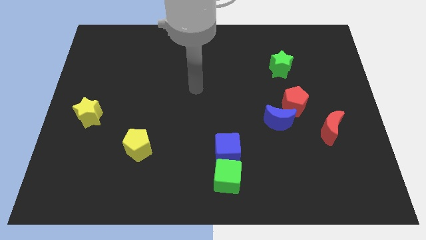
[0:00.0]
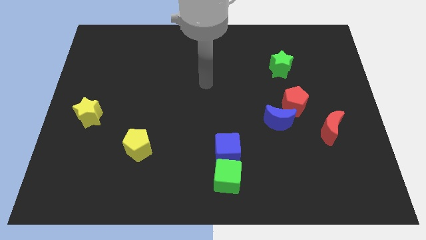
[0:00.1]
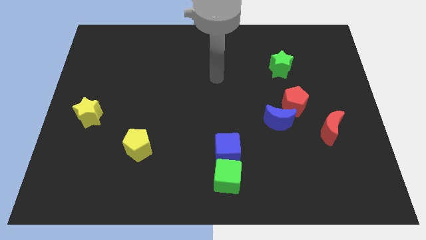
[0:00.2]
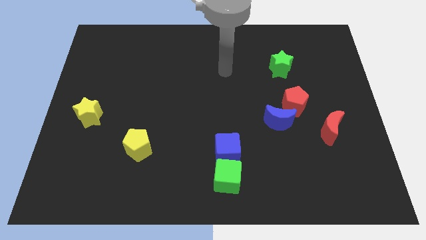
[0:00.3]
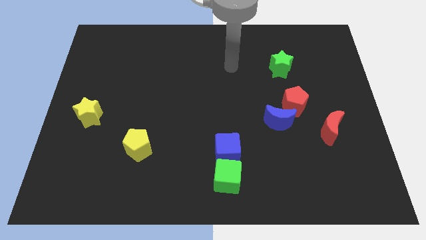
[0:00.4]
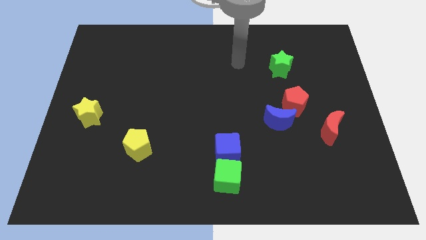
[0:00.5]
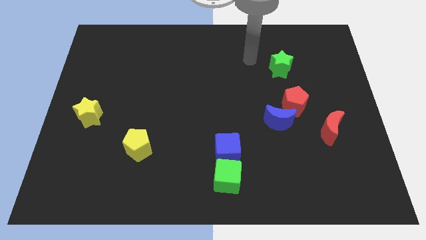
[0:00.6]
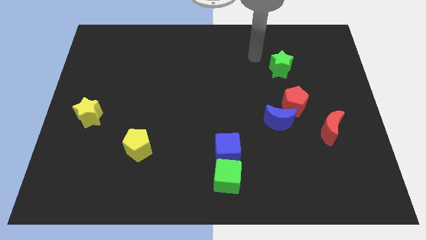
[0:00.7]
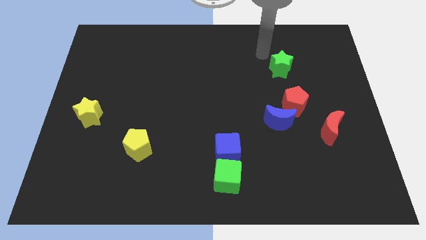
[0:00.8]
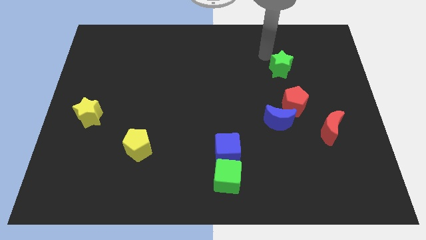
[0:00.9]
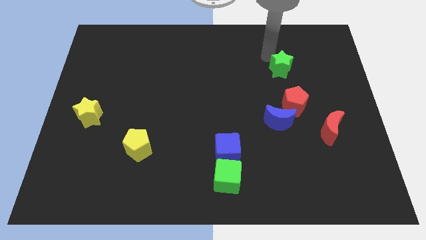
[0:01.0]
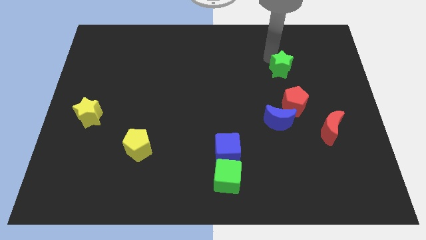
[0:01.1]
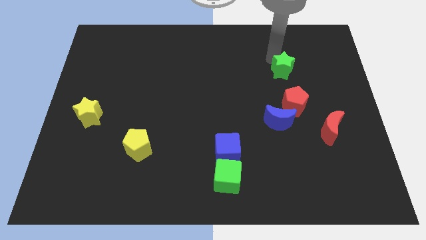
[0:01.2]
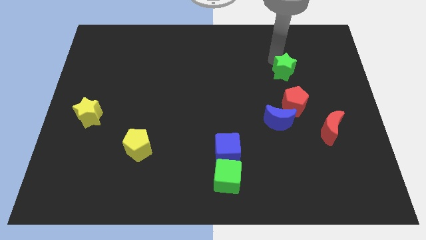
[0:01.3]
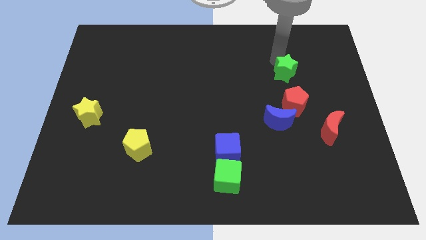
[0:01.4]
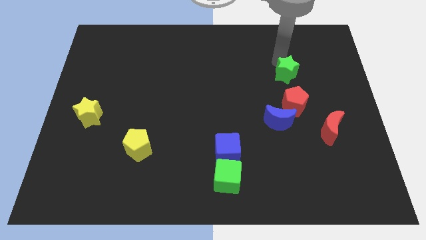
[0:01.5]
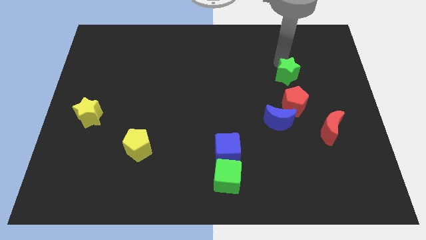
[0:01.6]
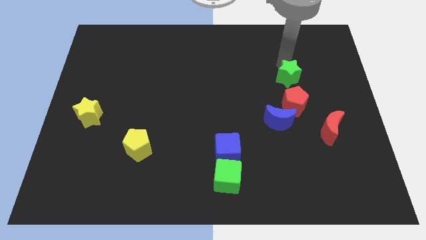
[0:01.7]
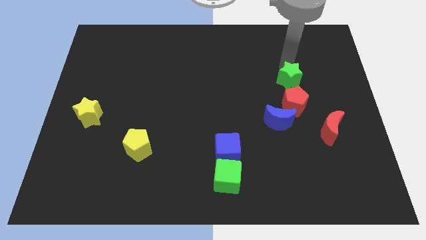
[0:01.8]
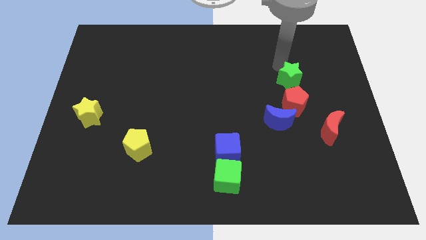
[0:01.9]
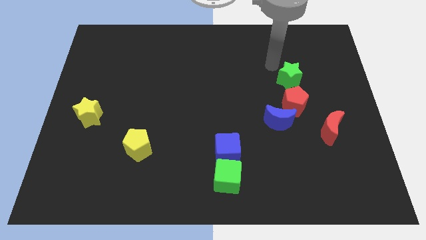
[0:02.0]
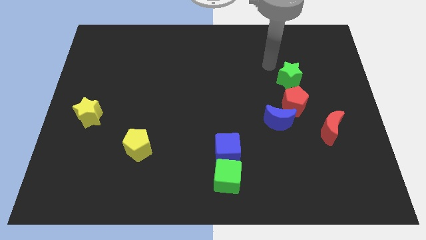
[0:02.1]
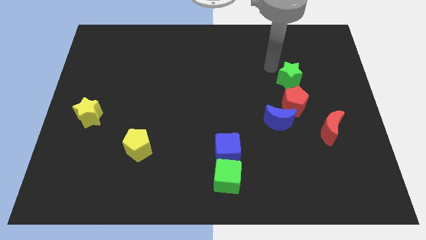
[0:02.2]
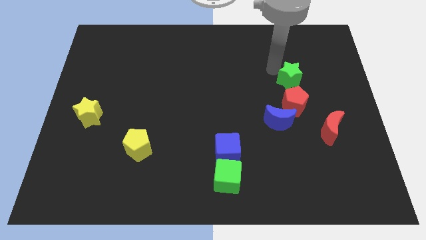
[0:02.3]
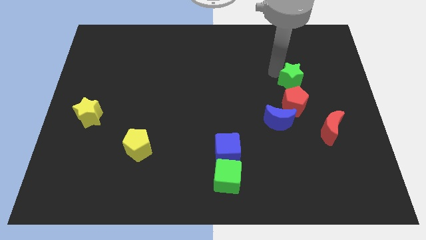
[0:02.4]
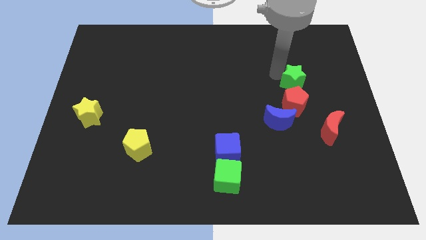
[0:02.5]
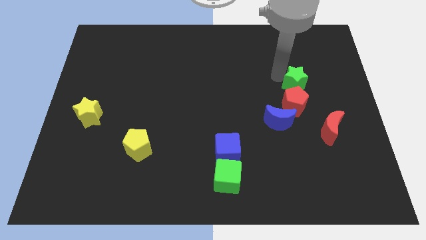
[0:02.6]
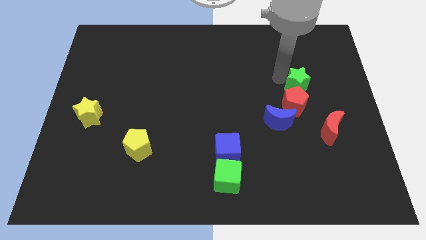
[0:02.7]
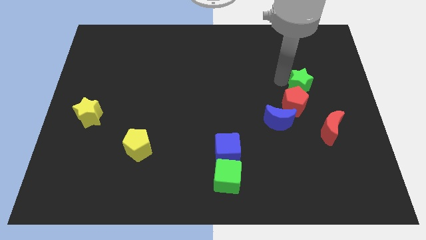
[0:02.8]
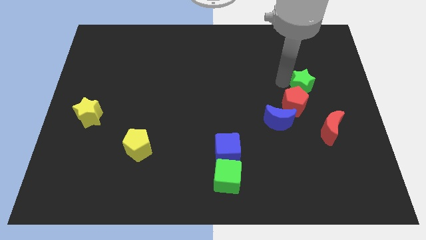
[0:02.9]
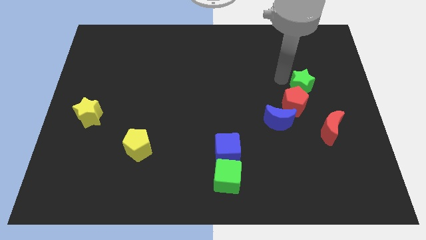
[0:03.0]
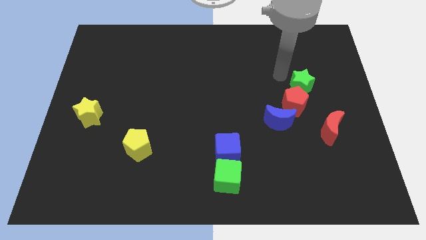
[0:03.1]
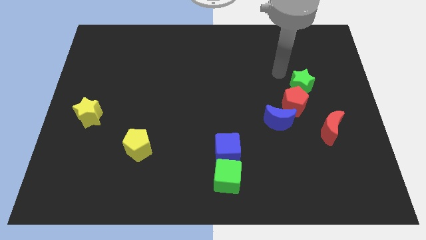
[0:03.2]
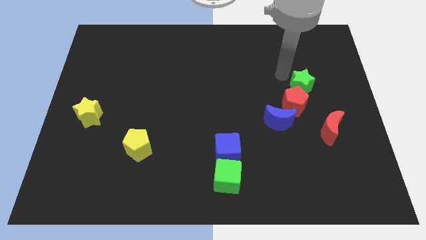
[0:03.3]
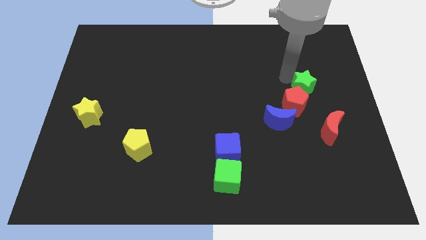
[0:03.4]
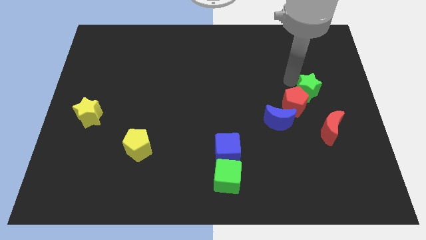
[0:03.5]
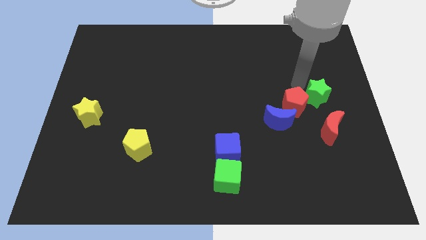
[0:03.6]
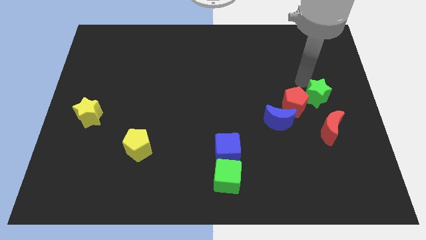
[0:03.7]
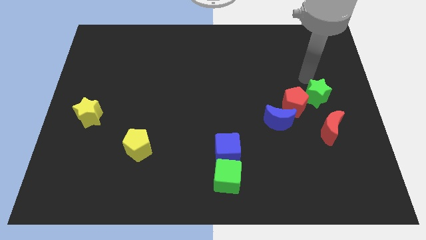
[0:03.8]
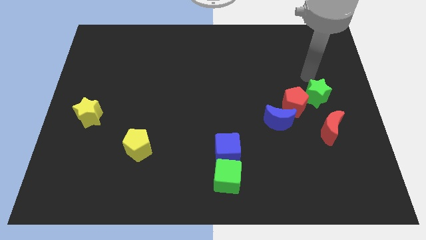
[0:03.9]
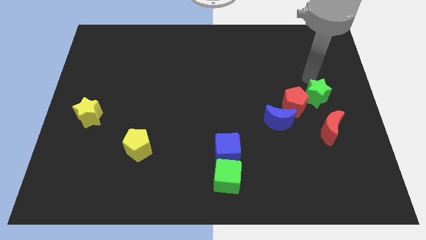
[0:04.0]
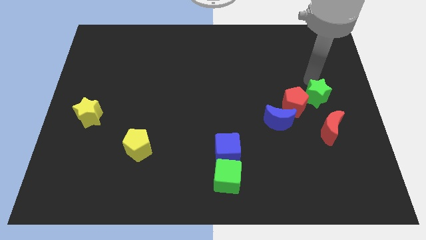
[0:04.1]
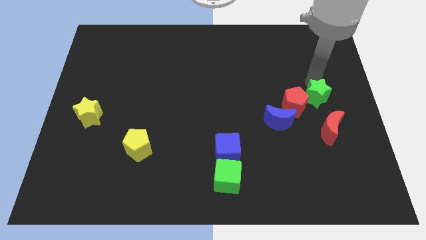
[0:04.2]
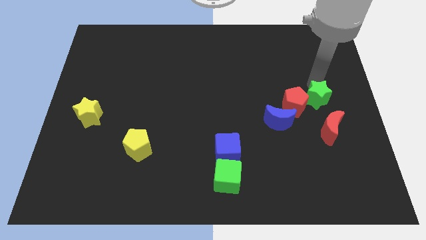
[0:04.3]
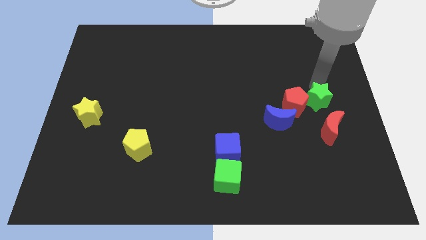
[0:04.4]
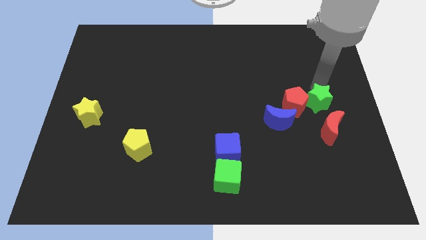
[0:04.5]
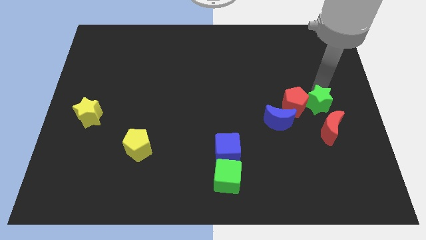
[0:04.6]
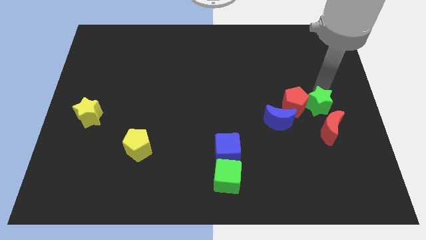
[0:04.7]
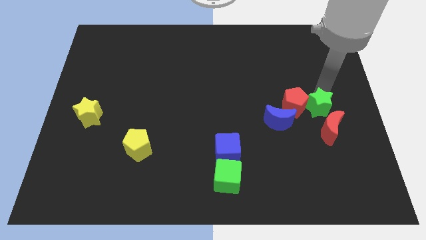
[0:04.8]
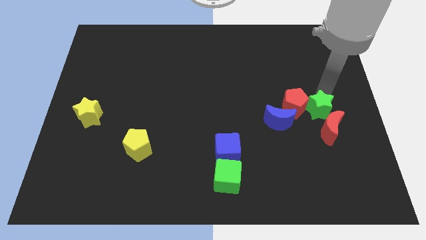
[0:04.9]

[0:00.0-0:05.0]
put the green star close to the red moon

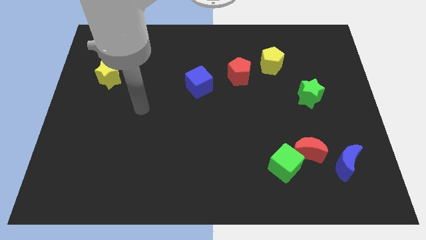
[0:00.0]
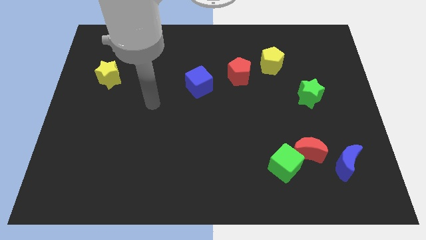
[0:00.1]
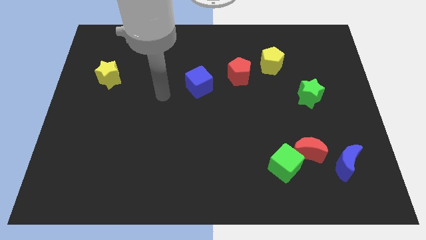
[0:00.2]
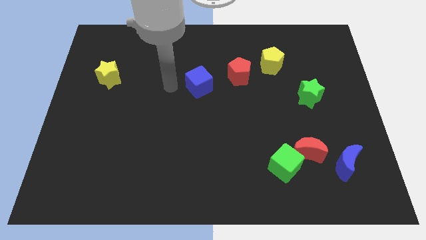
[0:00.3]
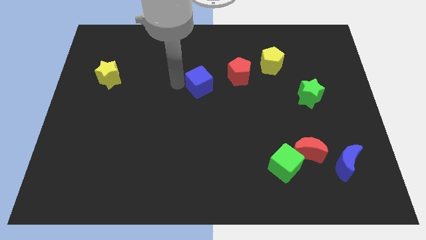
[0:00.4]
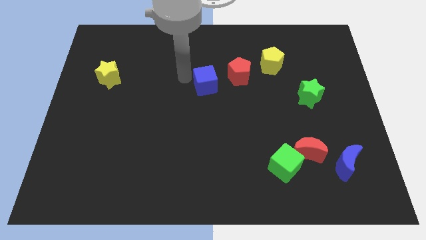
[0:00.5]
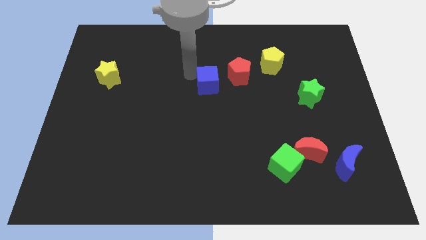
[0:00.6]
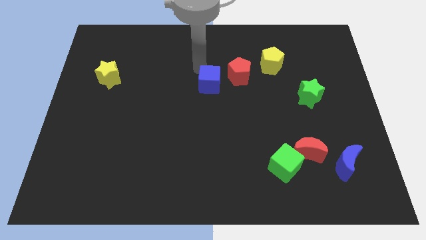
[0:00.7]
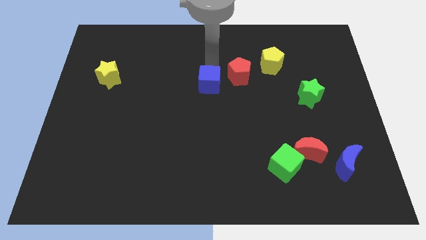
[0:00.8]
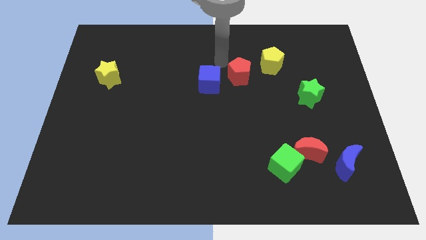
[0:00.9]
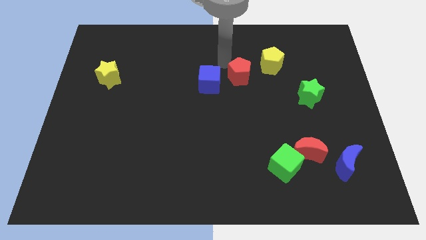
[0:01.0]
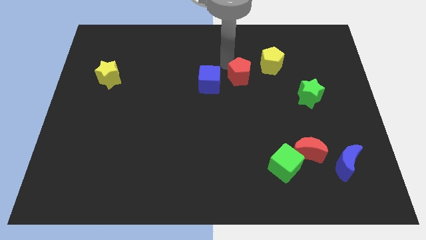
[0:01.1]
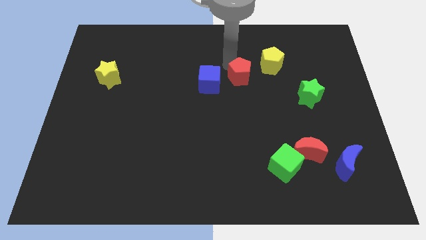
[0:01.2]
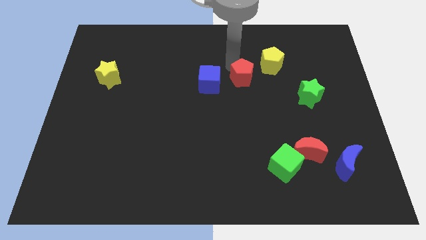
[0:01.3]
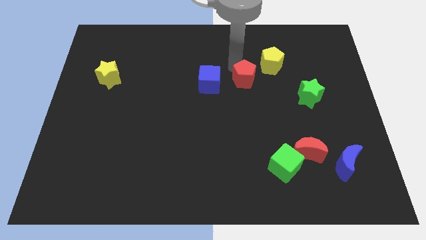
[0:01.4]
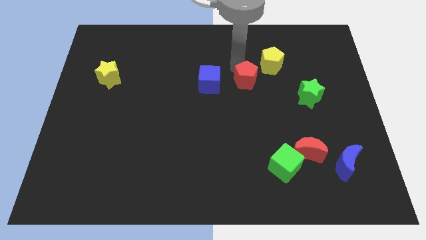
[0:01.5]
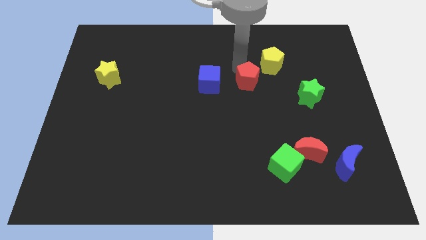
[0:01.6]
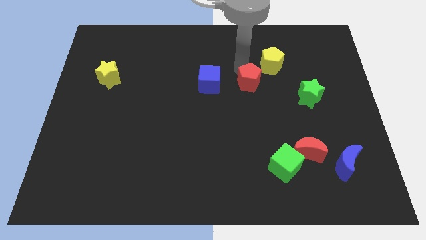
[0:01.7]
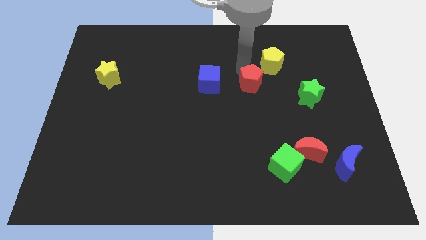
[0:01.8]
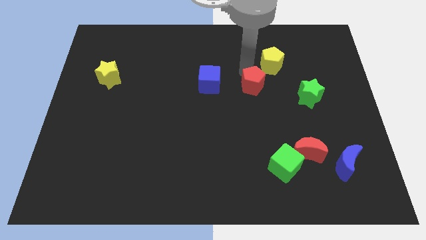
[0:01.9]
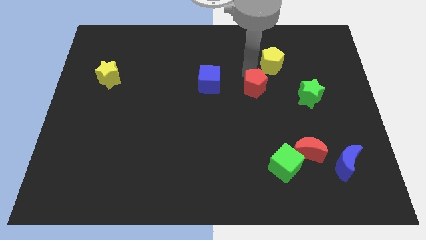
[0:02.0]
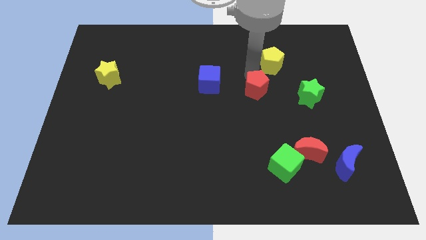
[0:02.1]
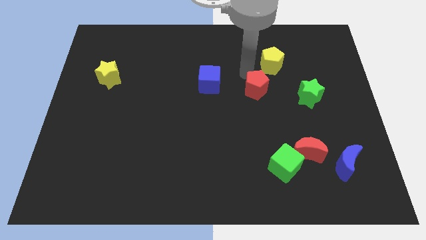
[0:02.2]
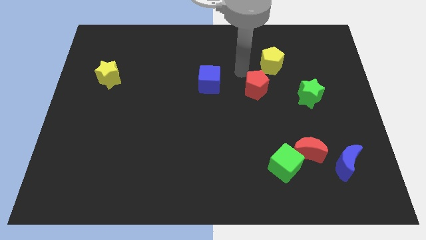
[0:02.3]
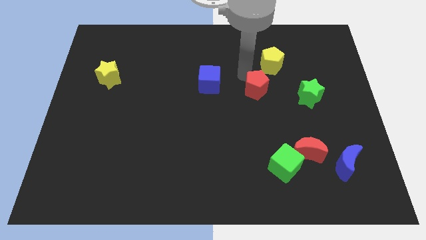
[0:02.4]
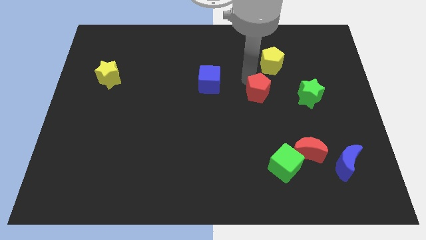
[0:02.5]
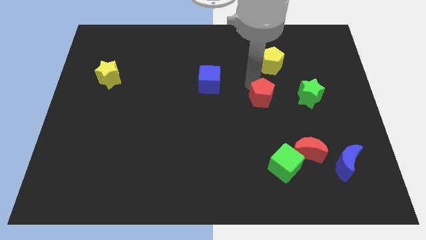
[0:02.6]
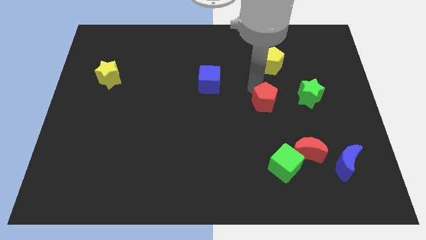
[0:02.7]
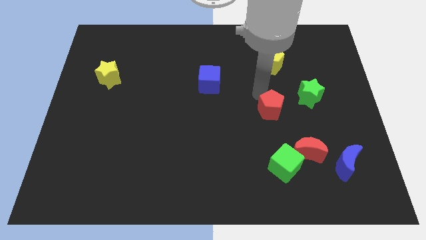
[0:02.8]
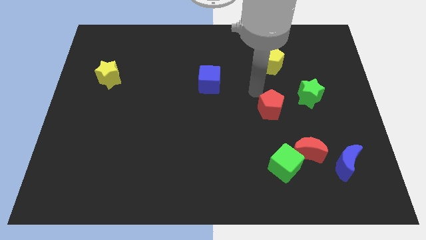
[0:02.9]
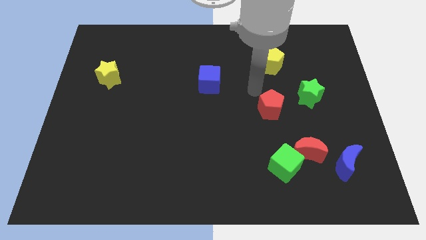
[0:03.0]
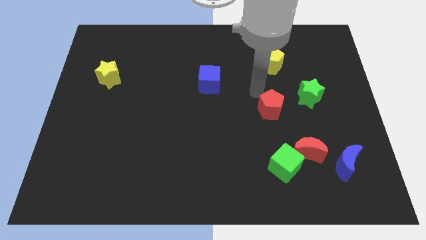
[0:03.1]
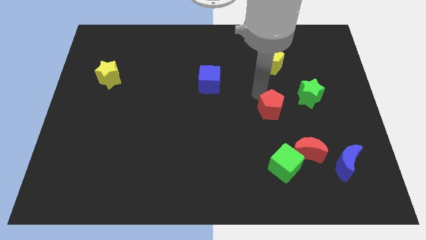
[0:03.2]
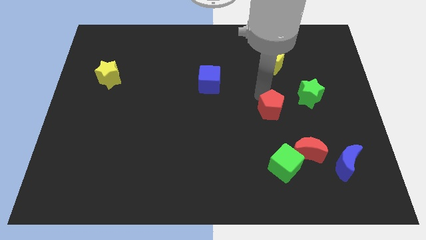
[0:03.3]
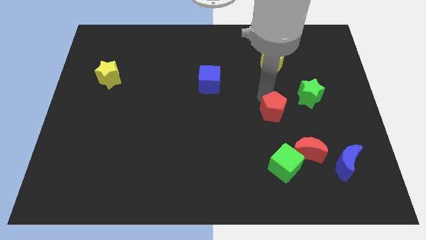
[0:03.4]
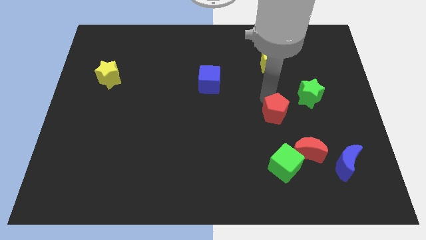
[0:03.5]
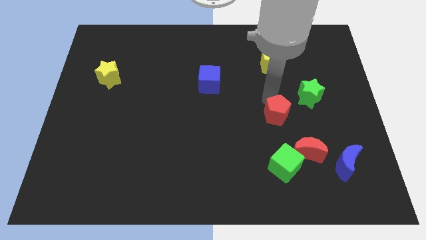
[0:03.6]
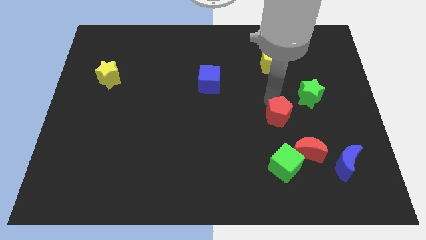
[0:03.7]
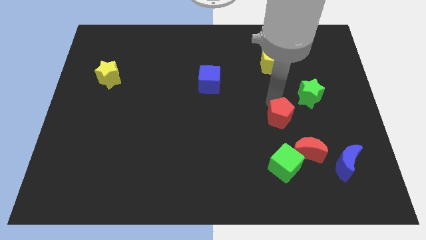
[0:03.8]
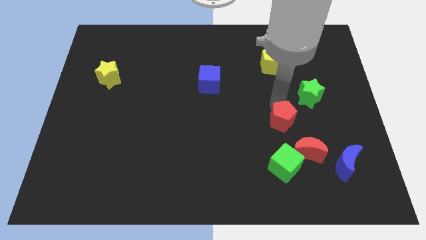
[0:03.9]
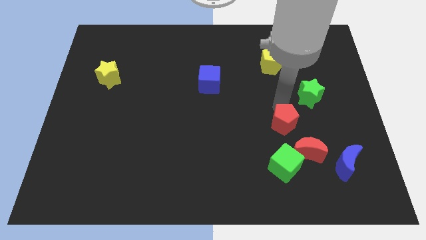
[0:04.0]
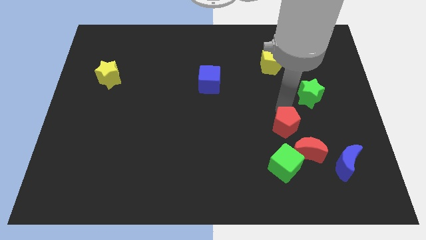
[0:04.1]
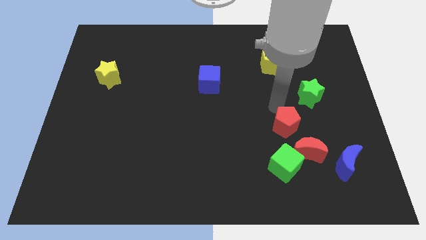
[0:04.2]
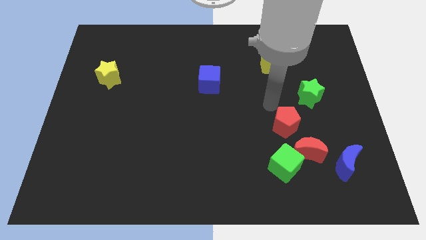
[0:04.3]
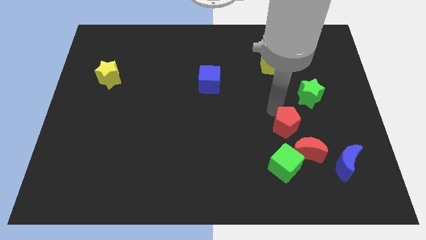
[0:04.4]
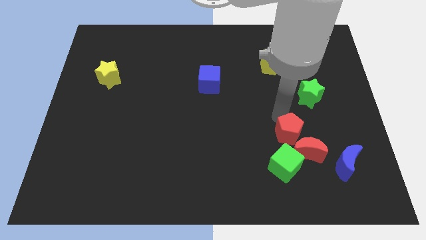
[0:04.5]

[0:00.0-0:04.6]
slide the red pentagon towards the red moon
